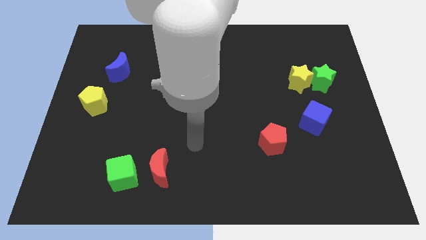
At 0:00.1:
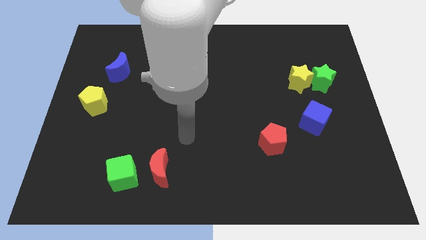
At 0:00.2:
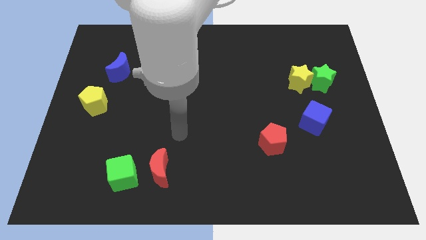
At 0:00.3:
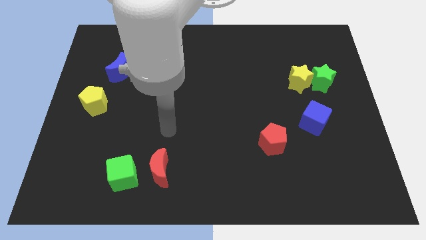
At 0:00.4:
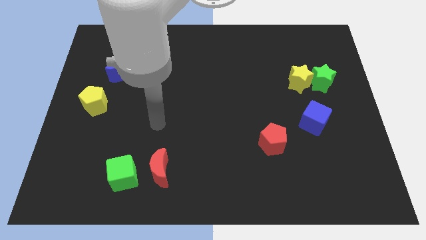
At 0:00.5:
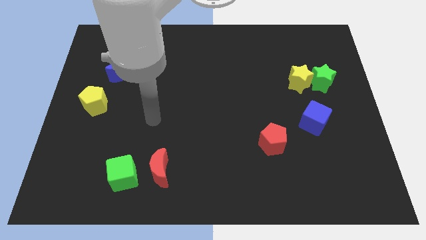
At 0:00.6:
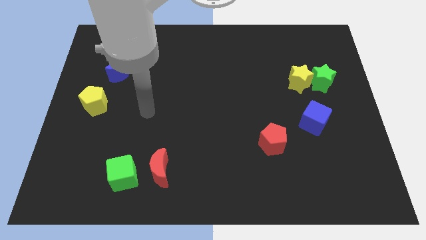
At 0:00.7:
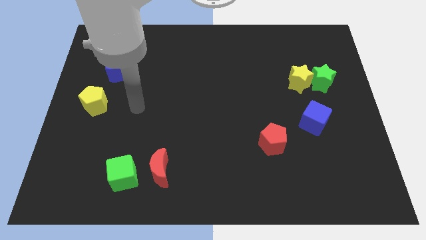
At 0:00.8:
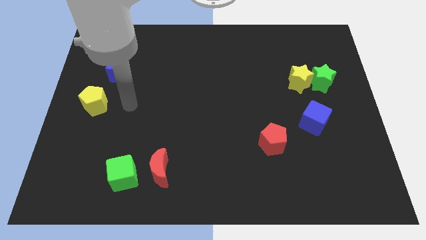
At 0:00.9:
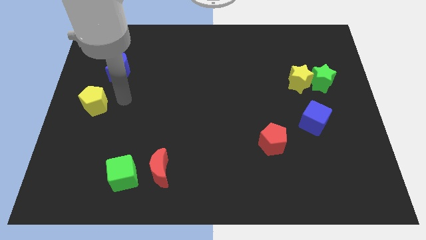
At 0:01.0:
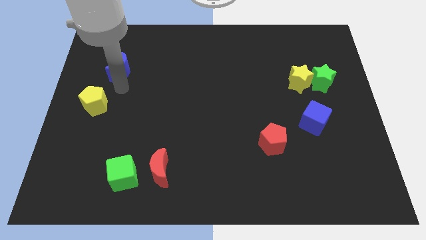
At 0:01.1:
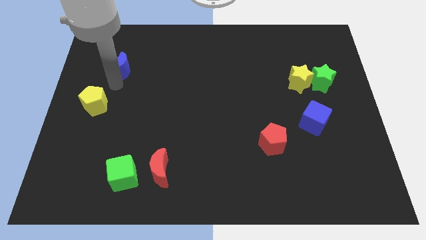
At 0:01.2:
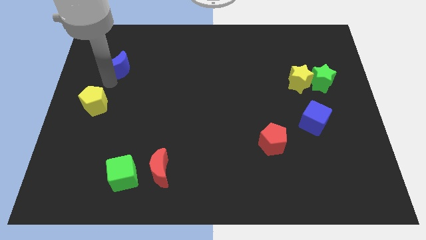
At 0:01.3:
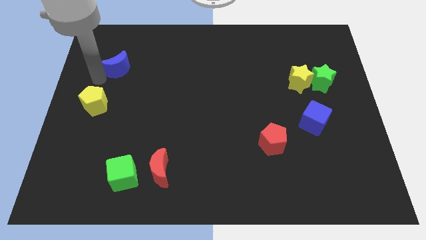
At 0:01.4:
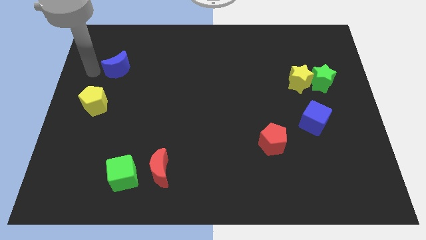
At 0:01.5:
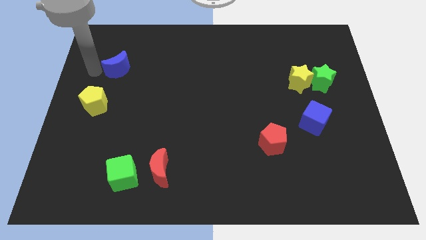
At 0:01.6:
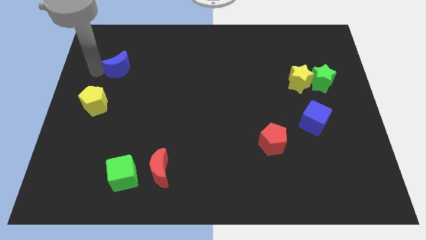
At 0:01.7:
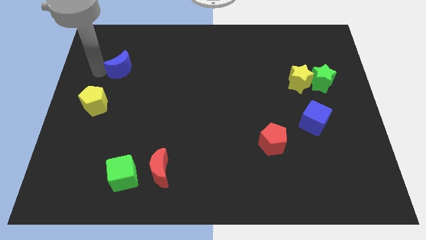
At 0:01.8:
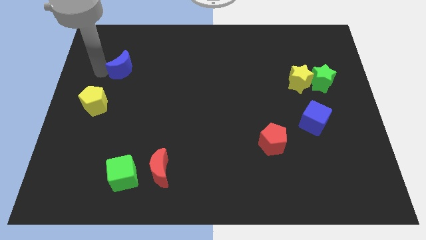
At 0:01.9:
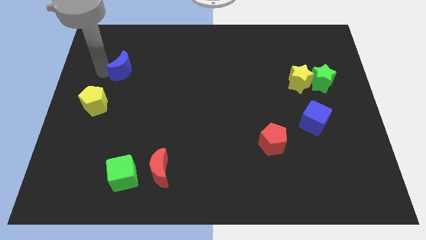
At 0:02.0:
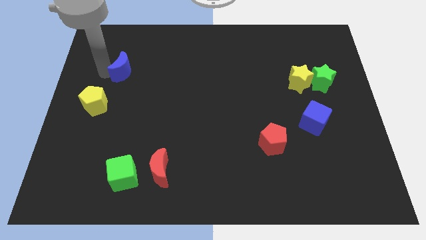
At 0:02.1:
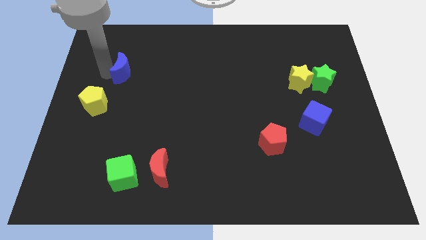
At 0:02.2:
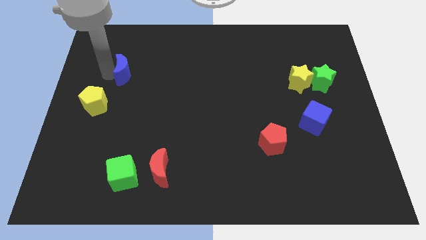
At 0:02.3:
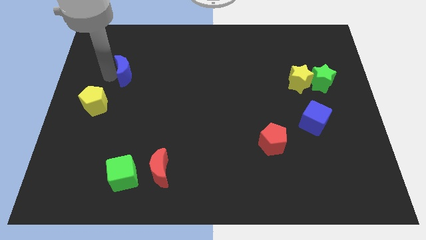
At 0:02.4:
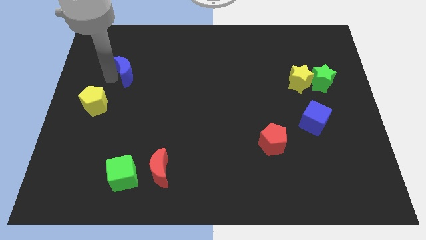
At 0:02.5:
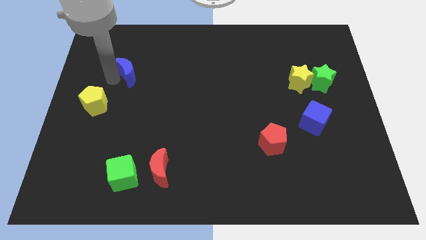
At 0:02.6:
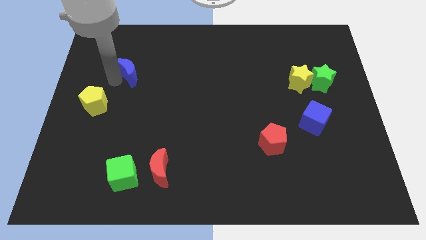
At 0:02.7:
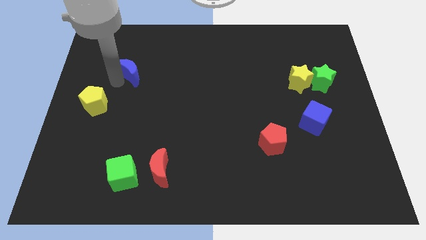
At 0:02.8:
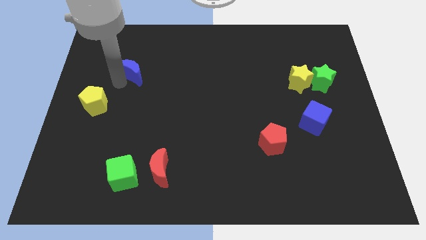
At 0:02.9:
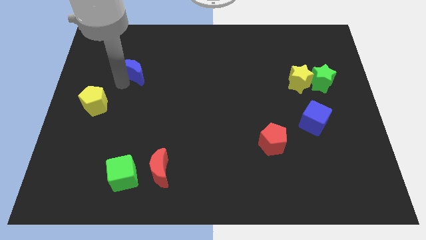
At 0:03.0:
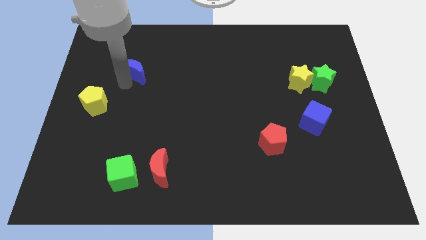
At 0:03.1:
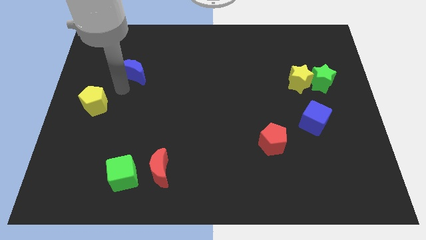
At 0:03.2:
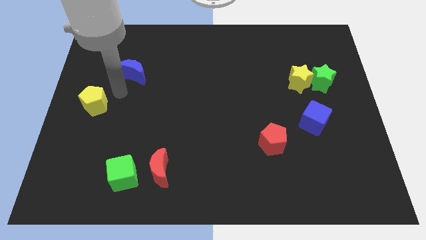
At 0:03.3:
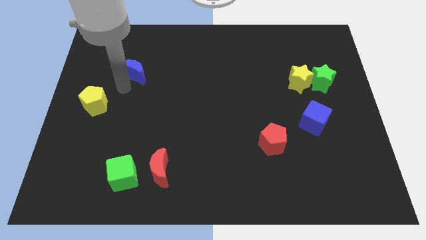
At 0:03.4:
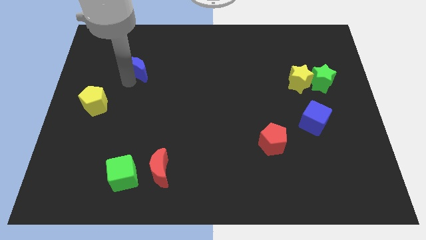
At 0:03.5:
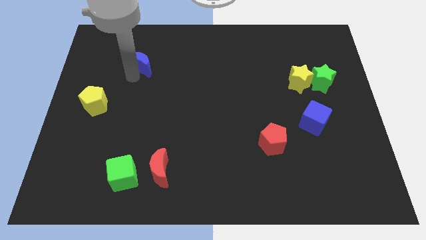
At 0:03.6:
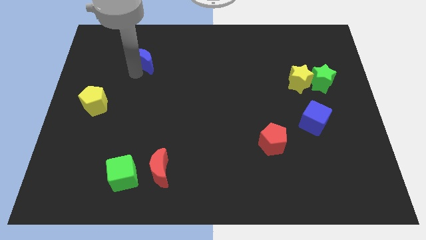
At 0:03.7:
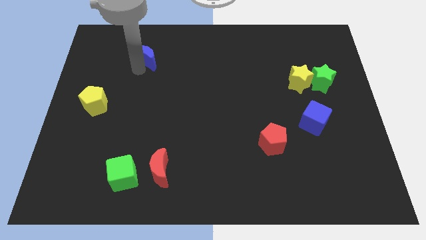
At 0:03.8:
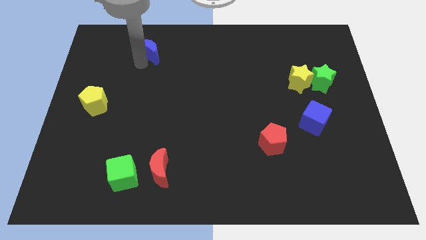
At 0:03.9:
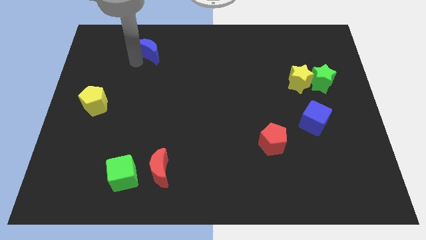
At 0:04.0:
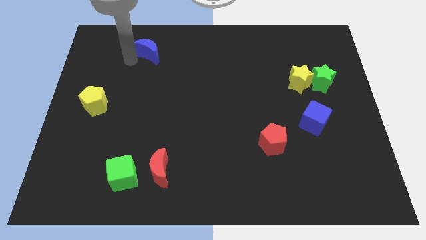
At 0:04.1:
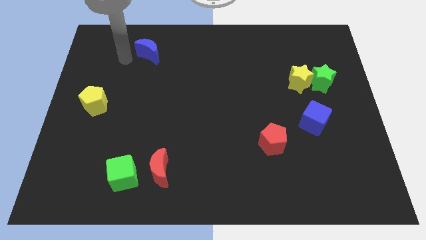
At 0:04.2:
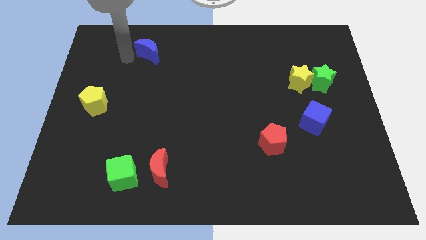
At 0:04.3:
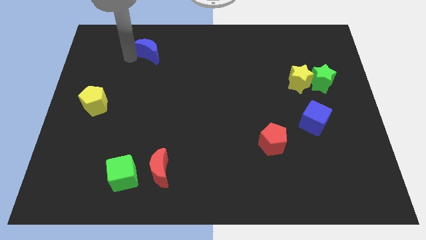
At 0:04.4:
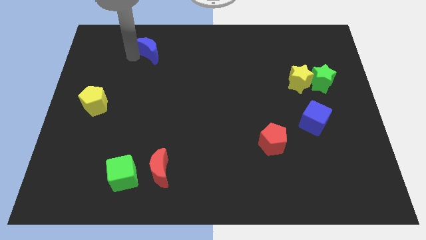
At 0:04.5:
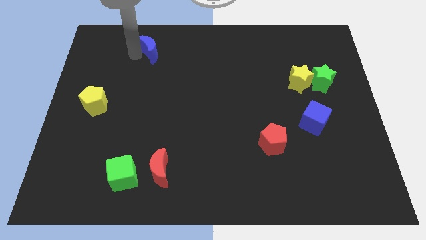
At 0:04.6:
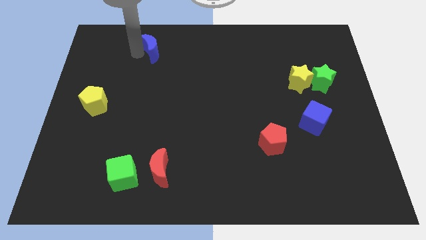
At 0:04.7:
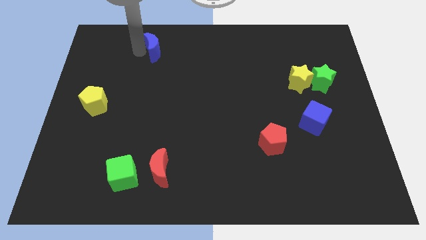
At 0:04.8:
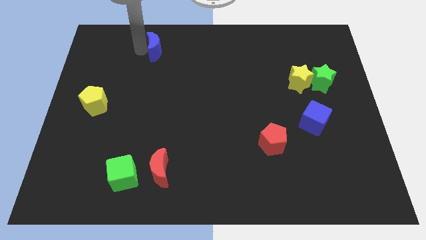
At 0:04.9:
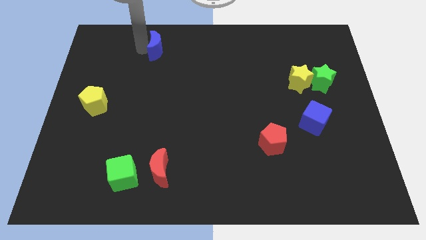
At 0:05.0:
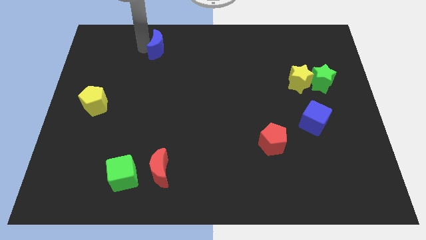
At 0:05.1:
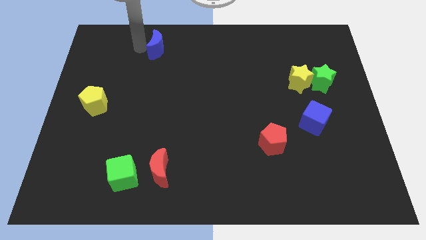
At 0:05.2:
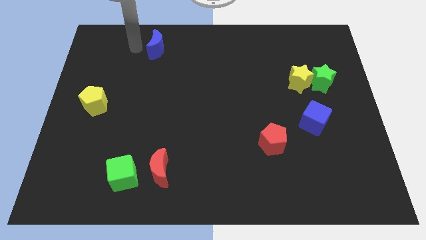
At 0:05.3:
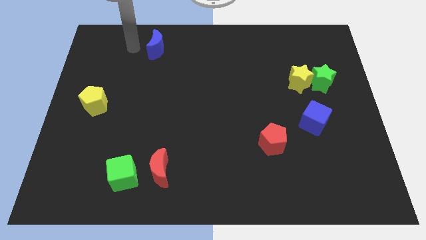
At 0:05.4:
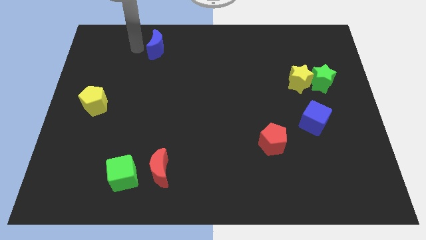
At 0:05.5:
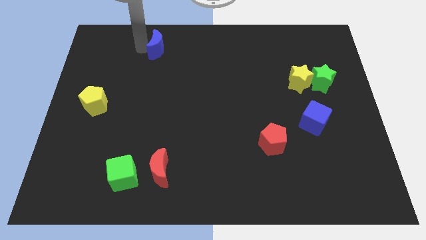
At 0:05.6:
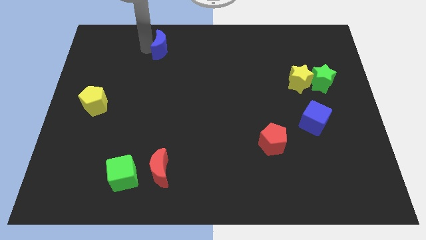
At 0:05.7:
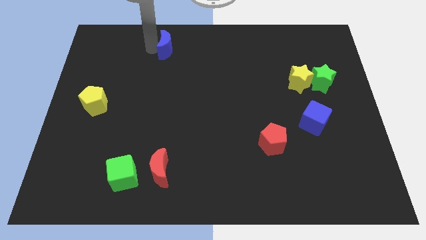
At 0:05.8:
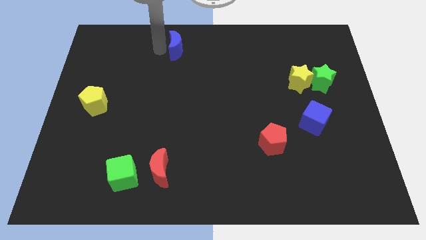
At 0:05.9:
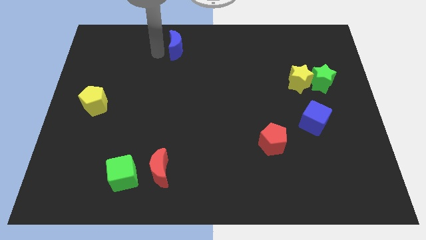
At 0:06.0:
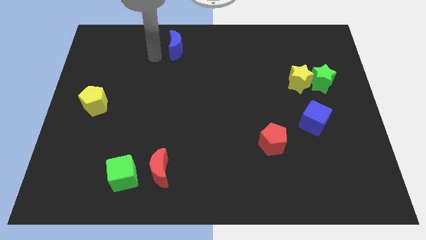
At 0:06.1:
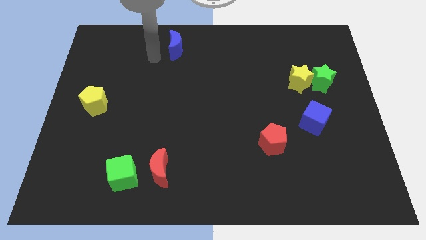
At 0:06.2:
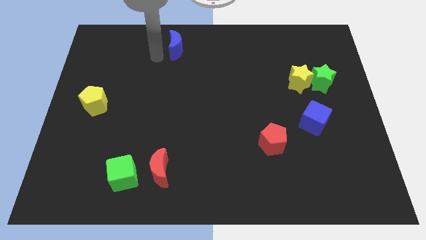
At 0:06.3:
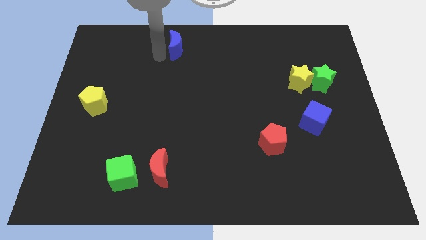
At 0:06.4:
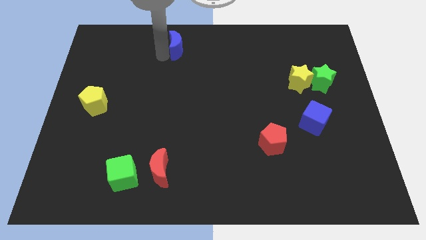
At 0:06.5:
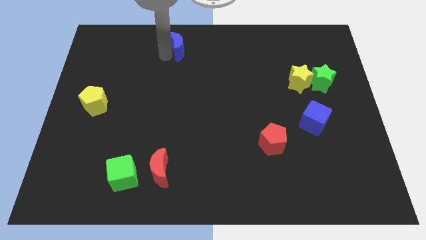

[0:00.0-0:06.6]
move the blue moon to the top side
